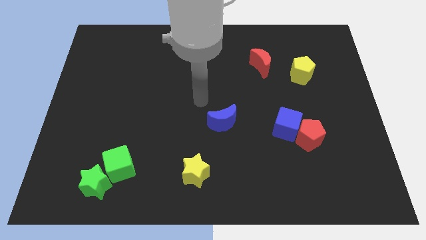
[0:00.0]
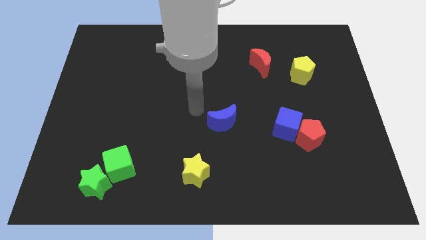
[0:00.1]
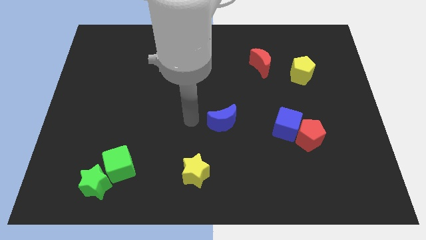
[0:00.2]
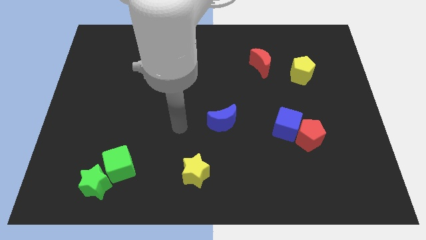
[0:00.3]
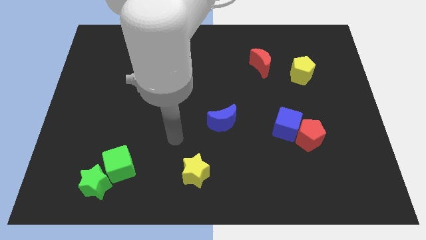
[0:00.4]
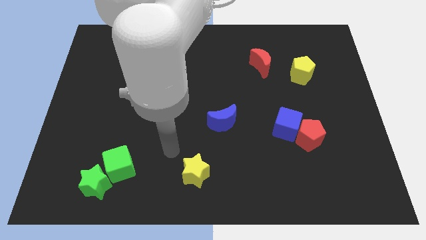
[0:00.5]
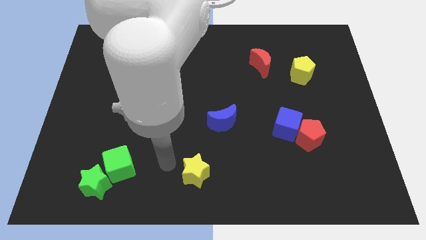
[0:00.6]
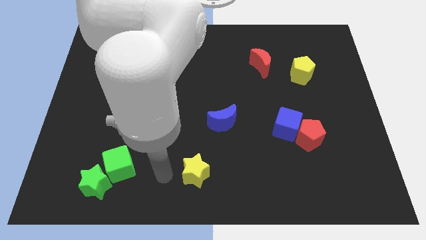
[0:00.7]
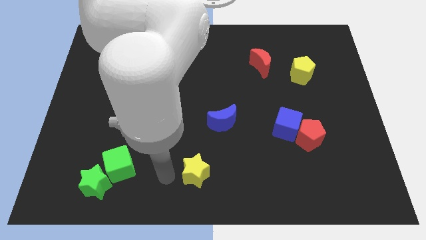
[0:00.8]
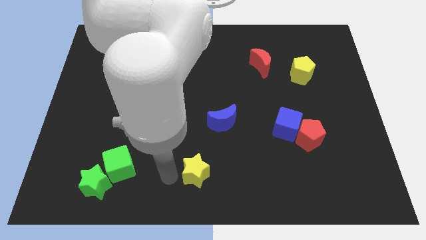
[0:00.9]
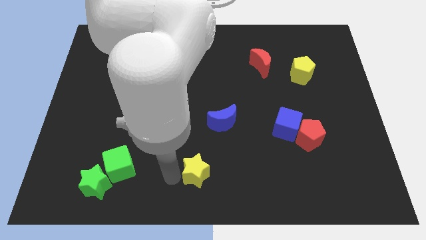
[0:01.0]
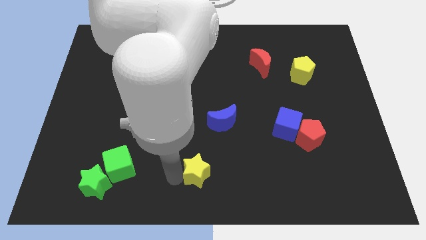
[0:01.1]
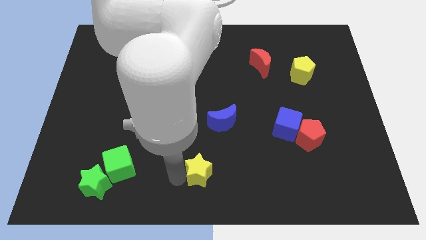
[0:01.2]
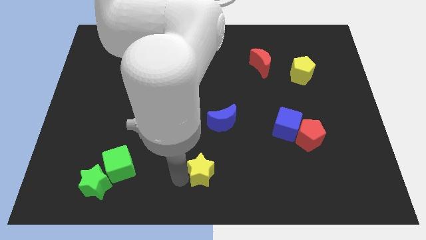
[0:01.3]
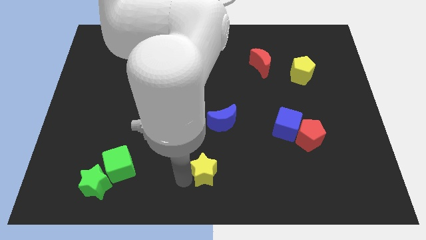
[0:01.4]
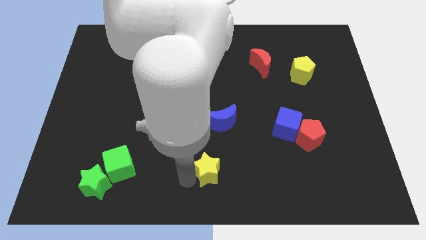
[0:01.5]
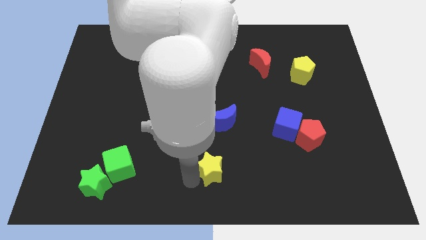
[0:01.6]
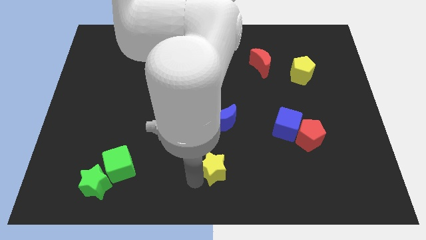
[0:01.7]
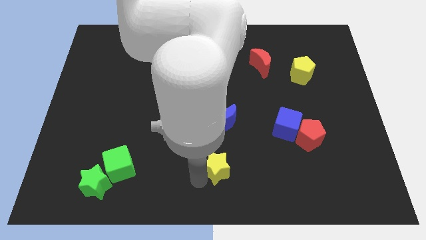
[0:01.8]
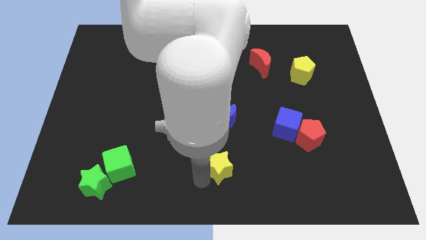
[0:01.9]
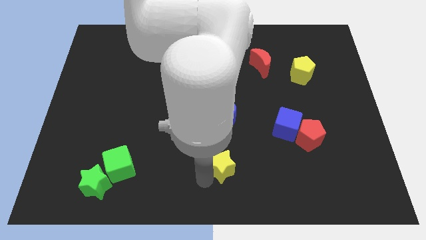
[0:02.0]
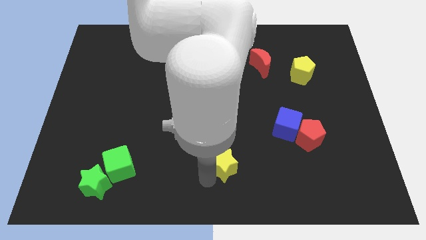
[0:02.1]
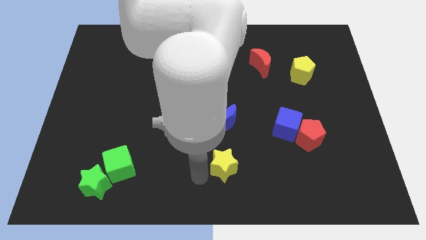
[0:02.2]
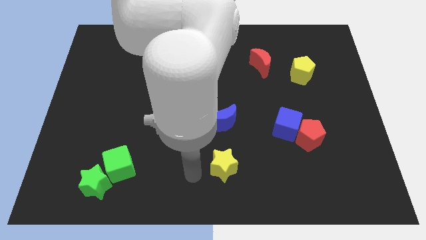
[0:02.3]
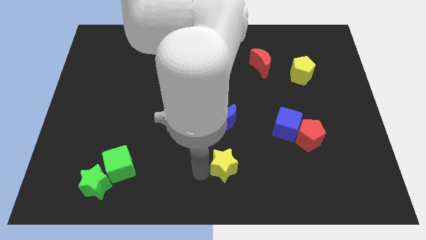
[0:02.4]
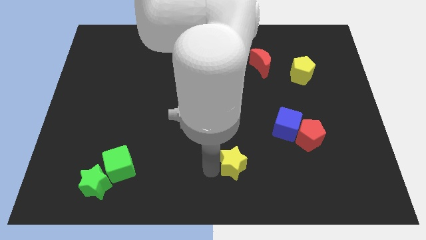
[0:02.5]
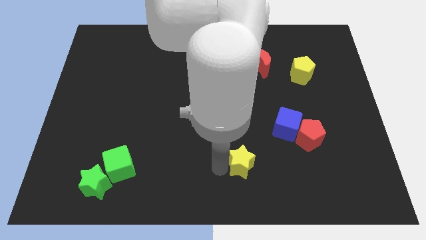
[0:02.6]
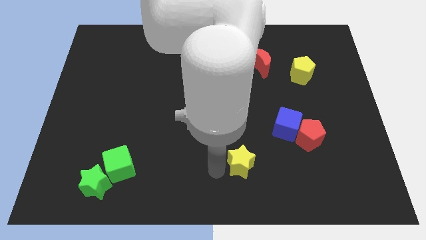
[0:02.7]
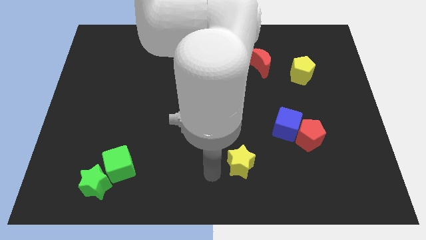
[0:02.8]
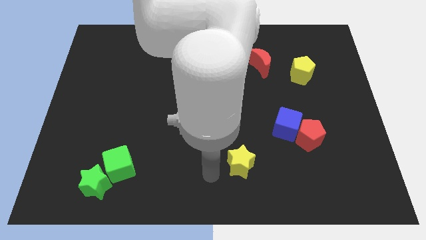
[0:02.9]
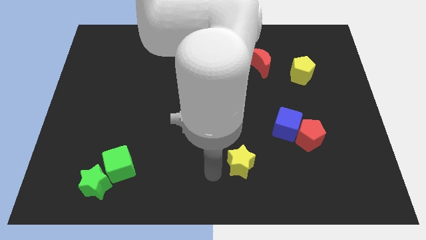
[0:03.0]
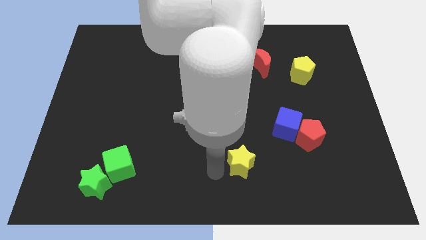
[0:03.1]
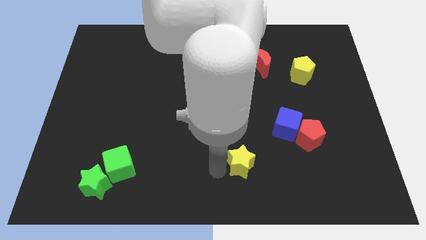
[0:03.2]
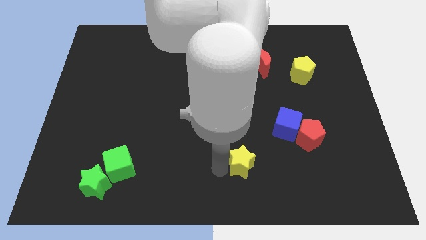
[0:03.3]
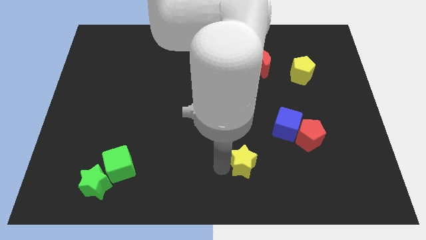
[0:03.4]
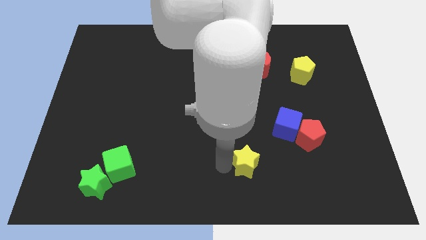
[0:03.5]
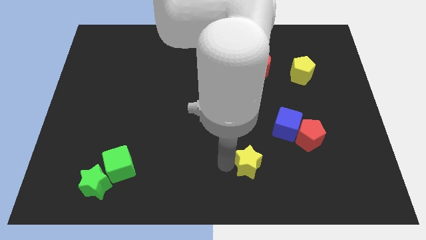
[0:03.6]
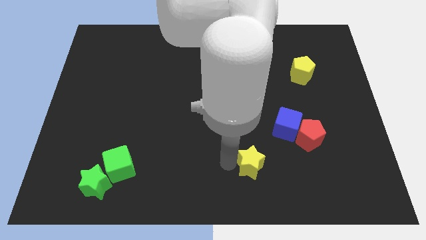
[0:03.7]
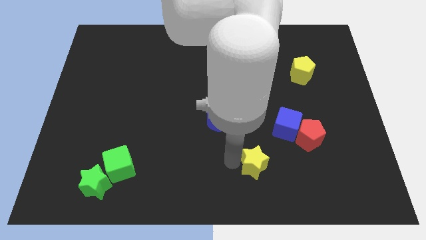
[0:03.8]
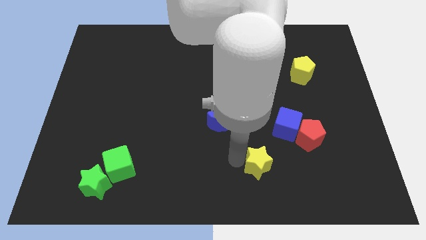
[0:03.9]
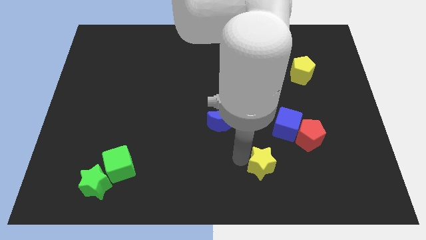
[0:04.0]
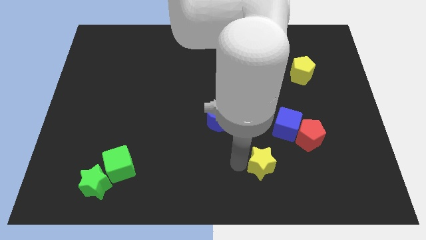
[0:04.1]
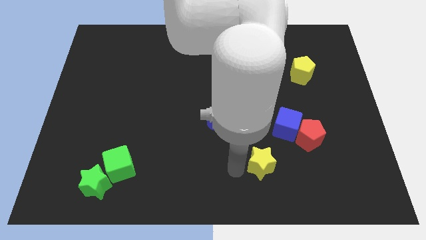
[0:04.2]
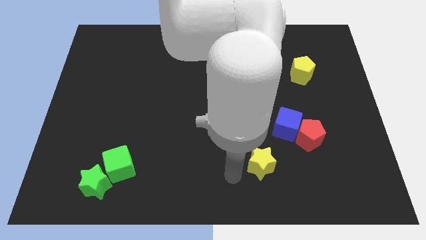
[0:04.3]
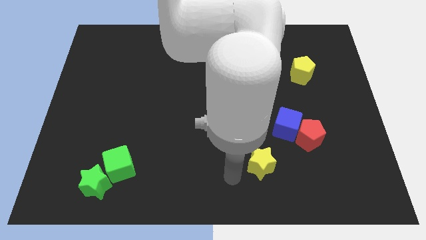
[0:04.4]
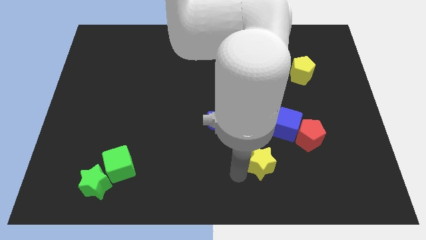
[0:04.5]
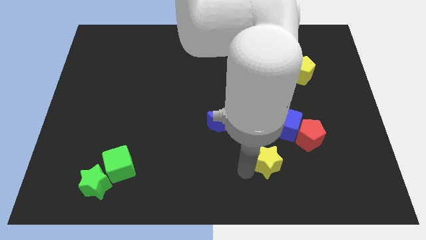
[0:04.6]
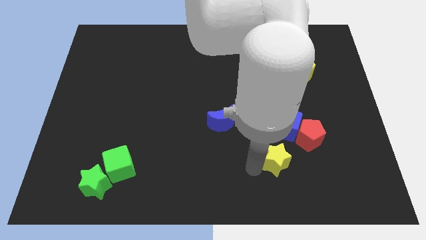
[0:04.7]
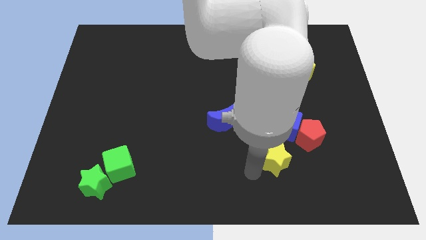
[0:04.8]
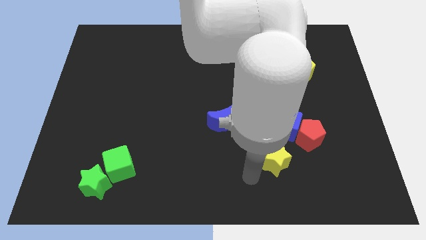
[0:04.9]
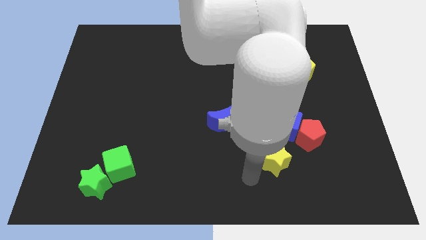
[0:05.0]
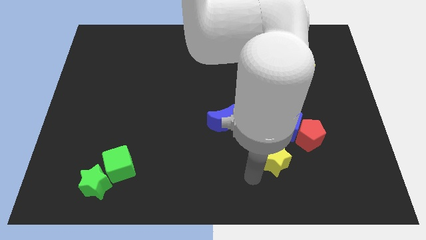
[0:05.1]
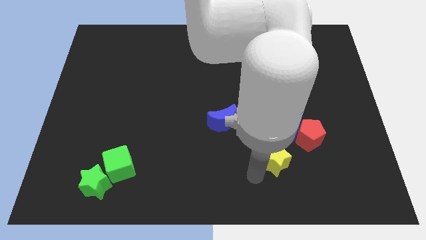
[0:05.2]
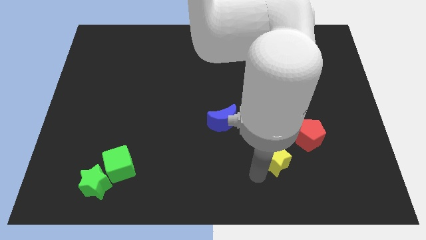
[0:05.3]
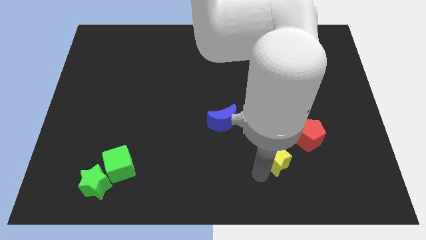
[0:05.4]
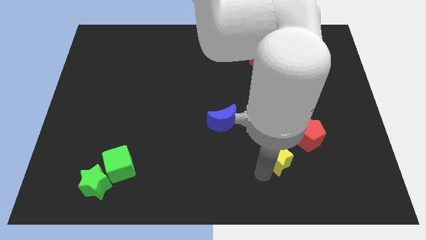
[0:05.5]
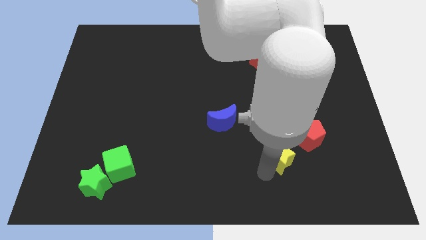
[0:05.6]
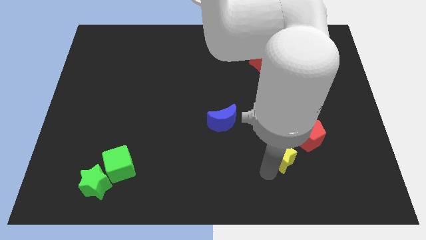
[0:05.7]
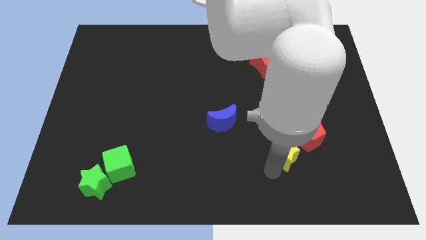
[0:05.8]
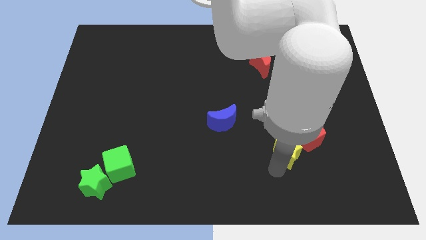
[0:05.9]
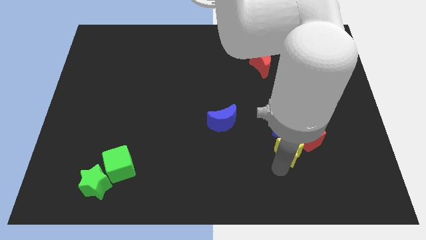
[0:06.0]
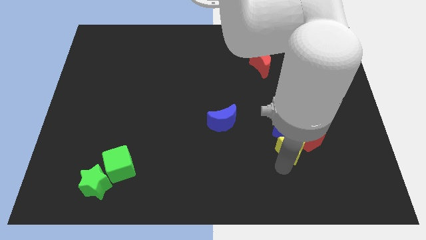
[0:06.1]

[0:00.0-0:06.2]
push the yellow star close to the red pentagon

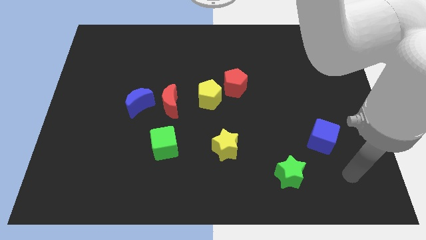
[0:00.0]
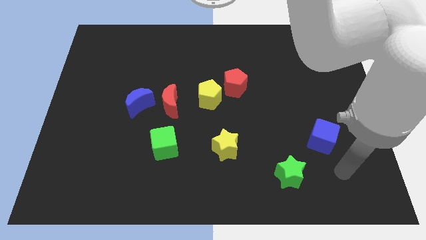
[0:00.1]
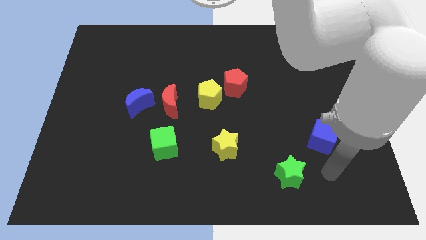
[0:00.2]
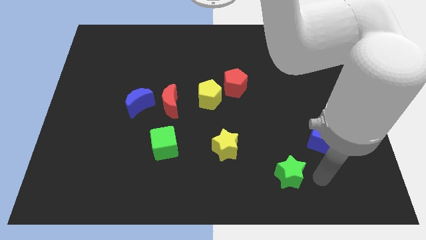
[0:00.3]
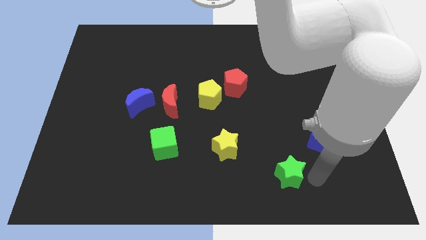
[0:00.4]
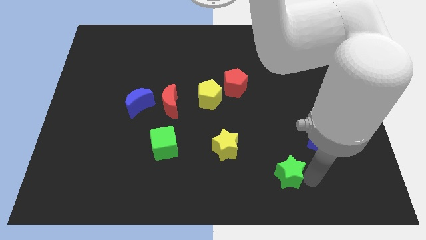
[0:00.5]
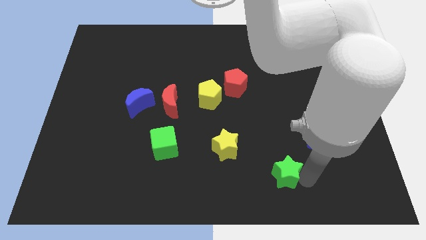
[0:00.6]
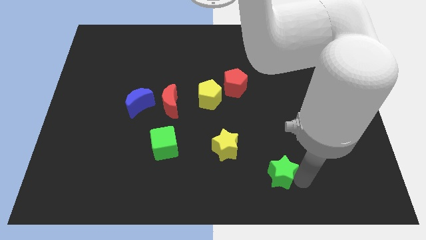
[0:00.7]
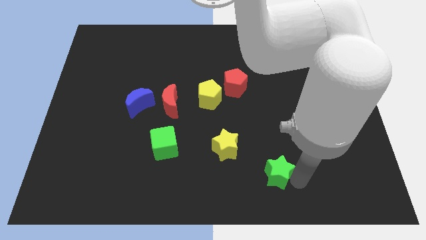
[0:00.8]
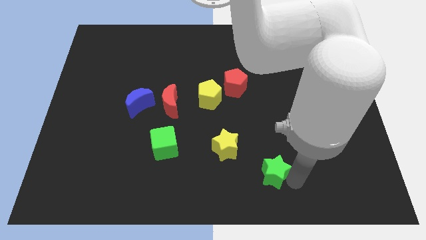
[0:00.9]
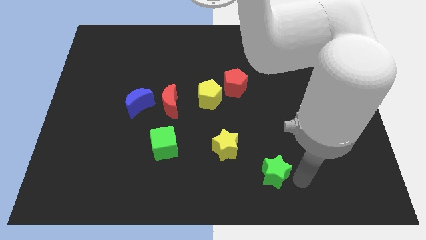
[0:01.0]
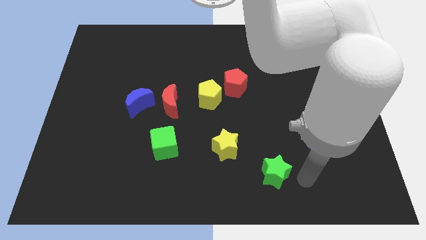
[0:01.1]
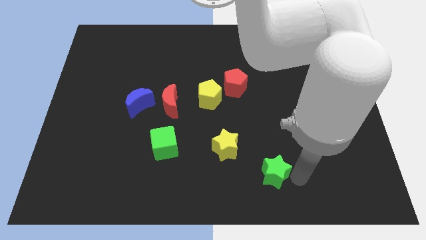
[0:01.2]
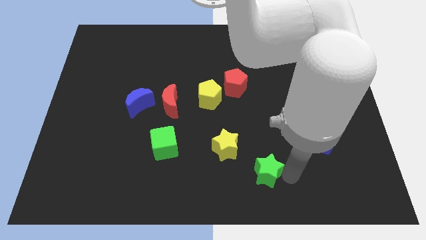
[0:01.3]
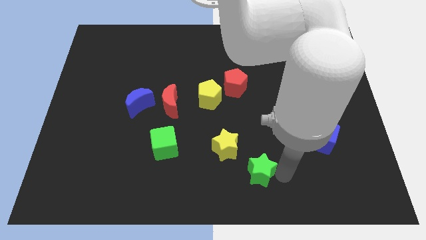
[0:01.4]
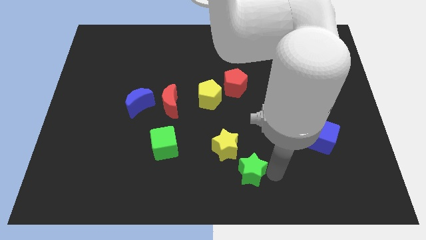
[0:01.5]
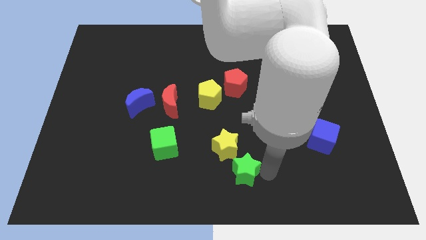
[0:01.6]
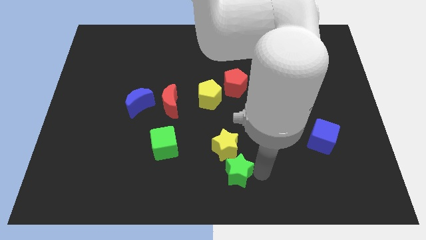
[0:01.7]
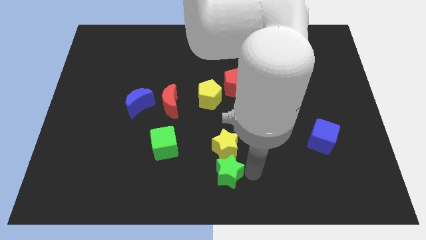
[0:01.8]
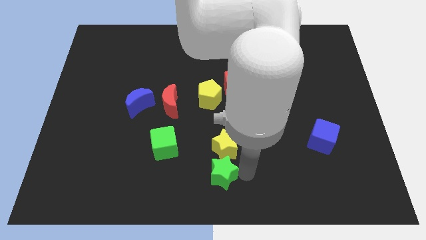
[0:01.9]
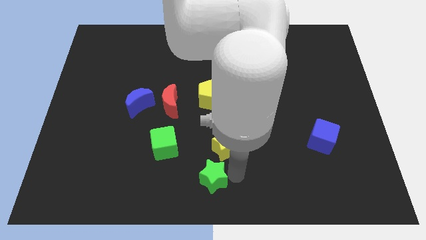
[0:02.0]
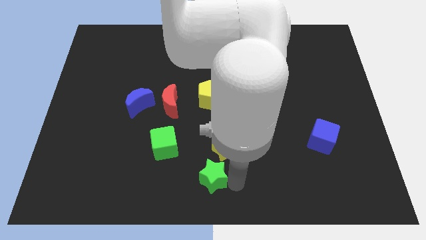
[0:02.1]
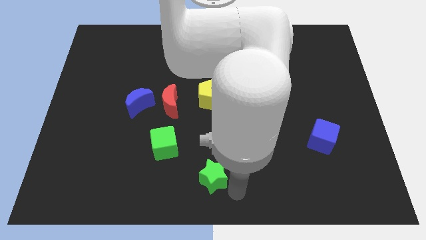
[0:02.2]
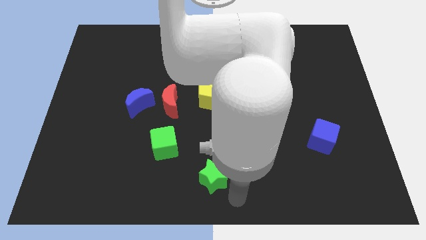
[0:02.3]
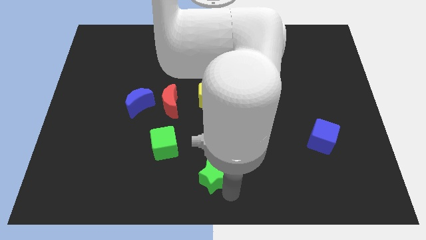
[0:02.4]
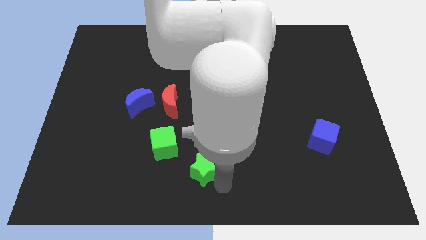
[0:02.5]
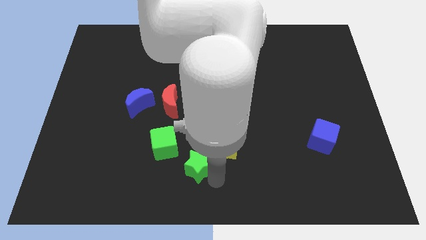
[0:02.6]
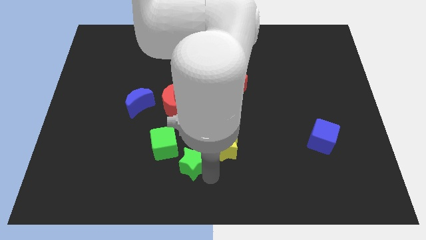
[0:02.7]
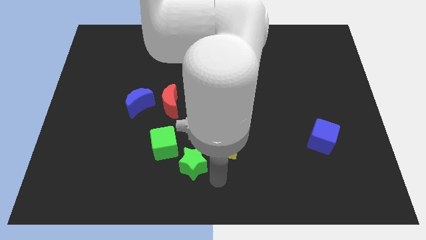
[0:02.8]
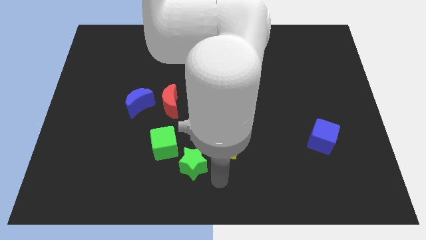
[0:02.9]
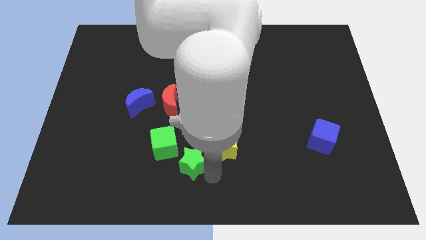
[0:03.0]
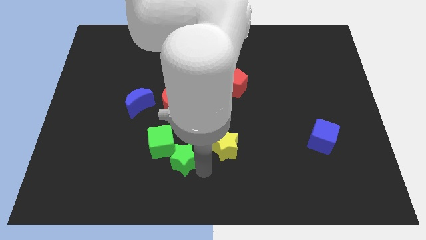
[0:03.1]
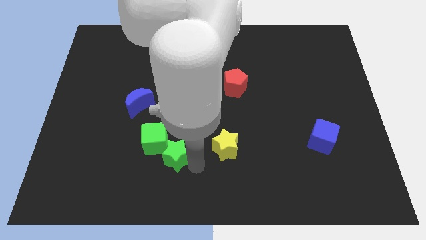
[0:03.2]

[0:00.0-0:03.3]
put the green star next to the green cube
